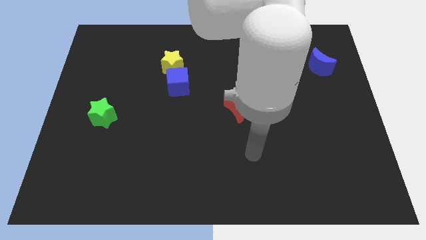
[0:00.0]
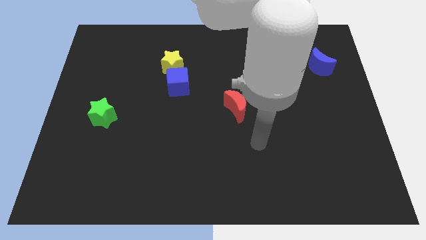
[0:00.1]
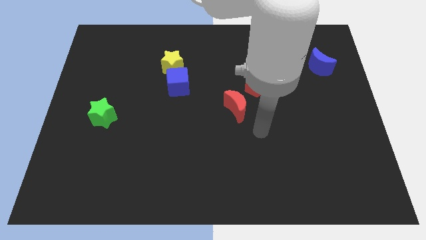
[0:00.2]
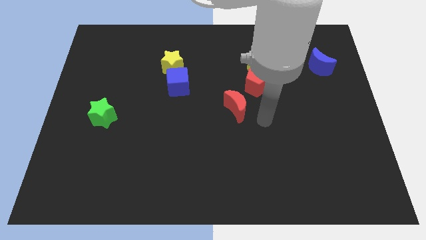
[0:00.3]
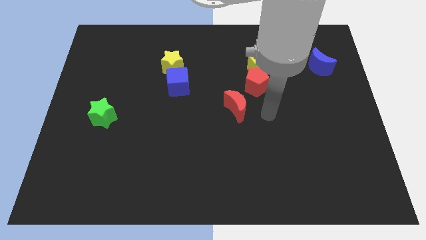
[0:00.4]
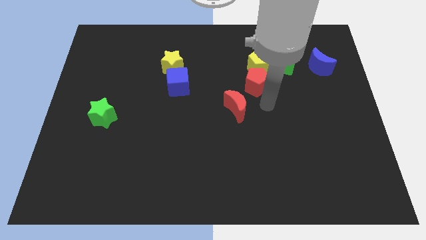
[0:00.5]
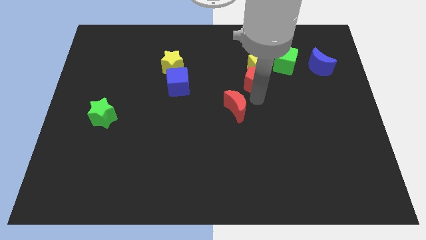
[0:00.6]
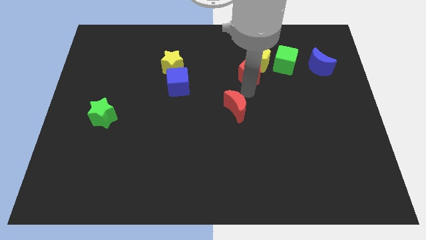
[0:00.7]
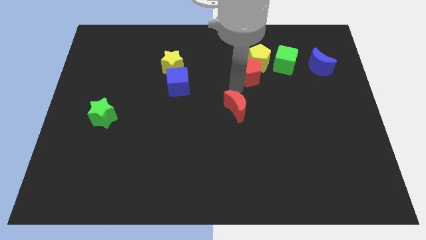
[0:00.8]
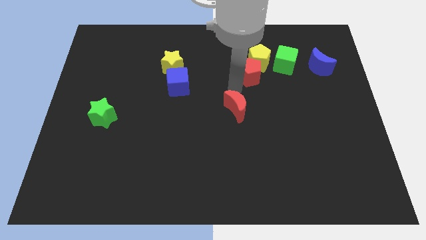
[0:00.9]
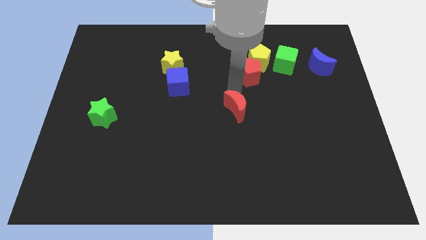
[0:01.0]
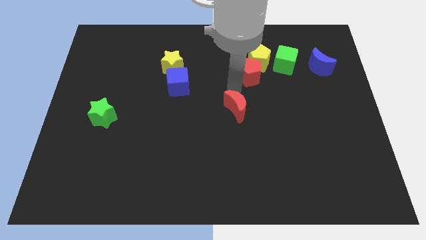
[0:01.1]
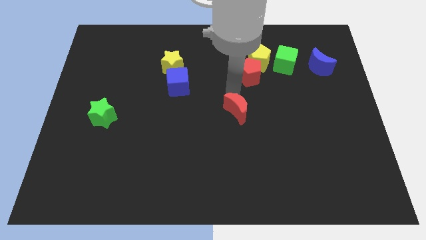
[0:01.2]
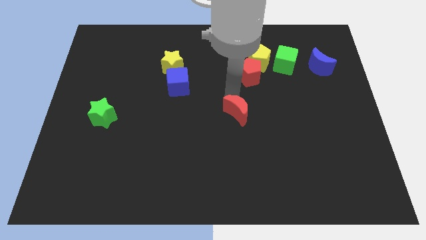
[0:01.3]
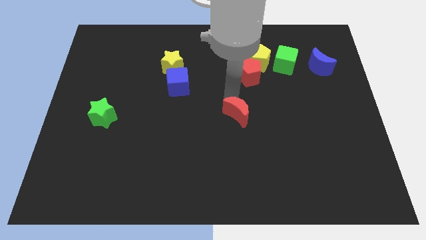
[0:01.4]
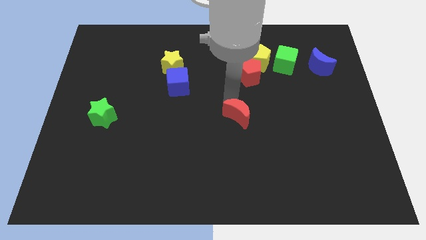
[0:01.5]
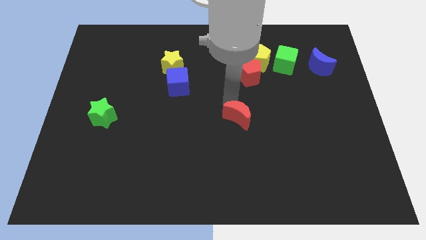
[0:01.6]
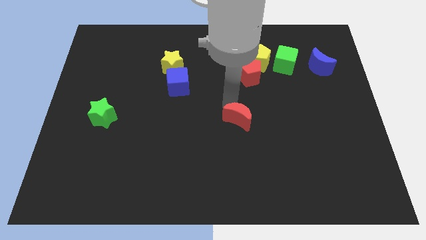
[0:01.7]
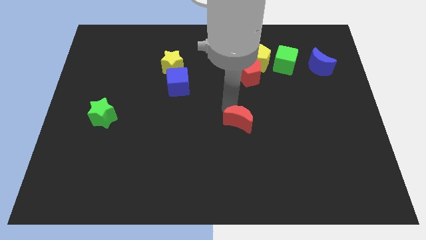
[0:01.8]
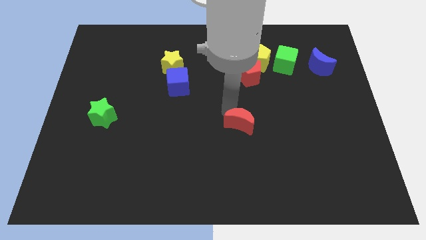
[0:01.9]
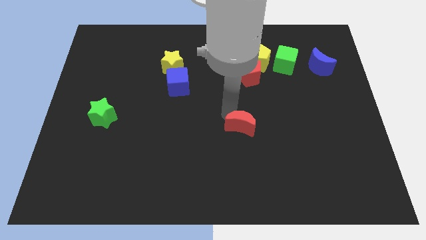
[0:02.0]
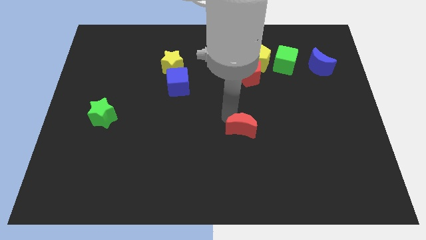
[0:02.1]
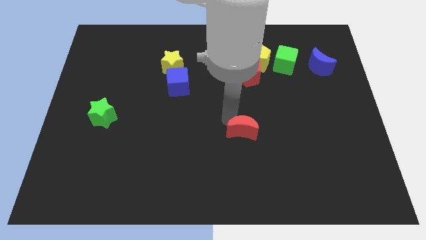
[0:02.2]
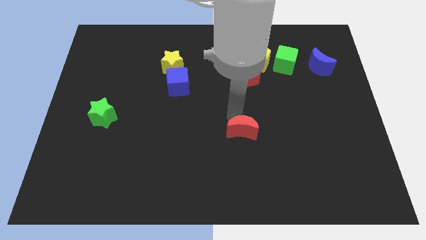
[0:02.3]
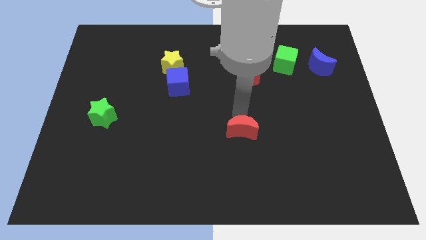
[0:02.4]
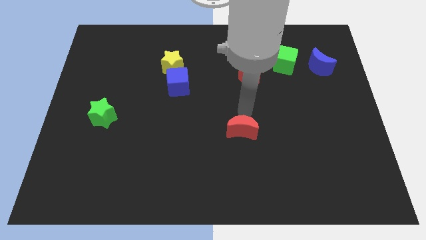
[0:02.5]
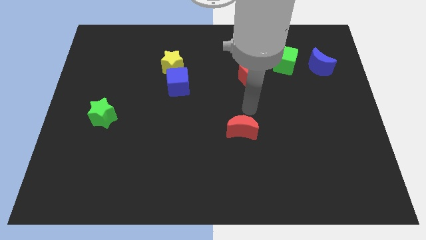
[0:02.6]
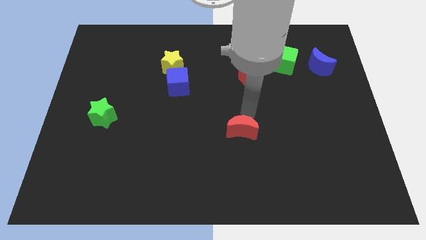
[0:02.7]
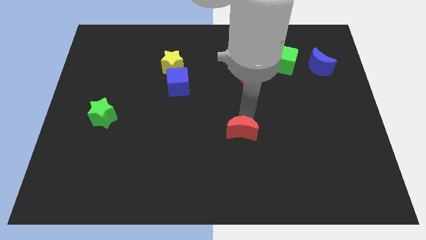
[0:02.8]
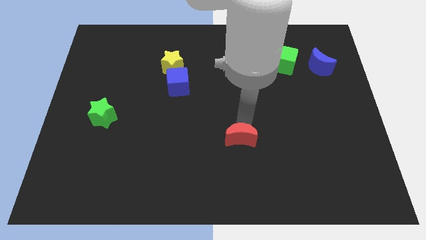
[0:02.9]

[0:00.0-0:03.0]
push the red moon slightly down

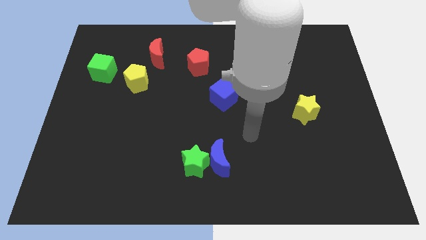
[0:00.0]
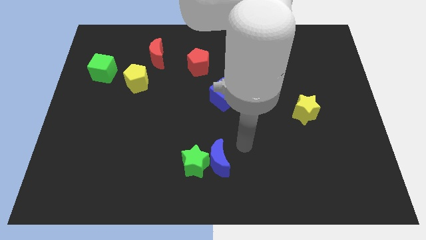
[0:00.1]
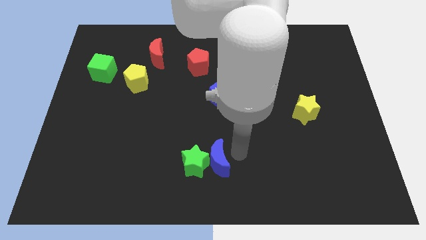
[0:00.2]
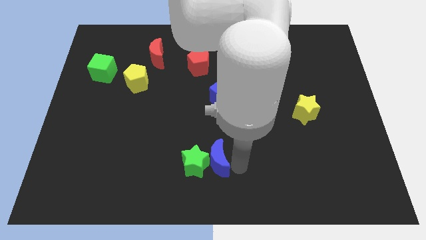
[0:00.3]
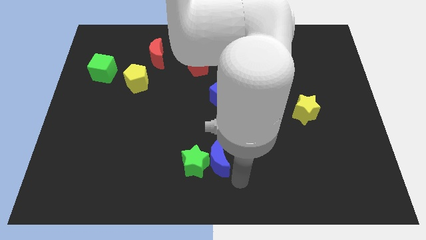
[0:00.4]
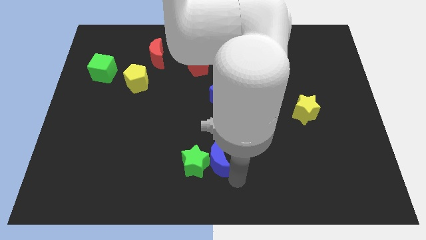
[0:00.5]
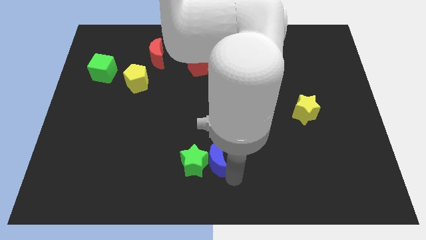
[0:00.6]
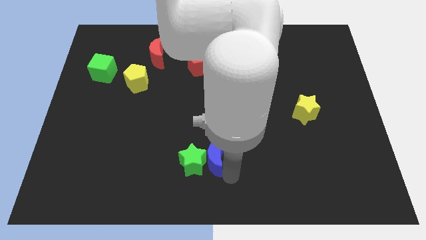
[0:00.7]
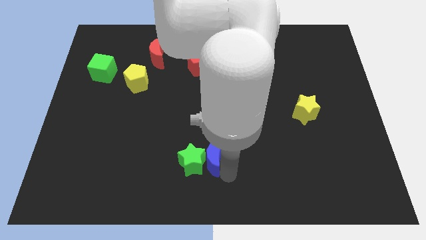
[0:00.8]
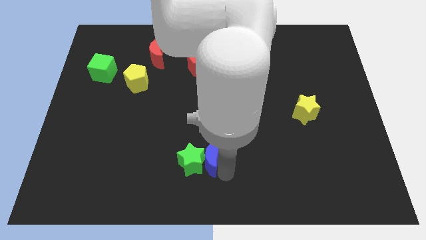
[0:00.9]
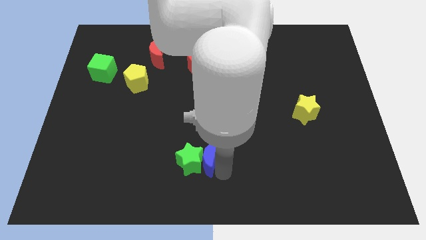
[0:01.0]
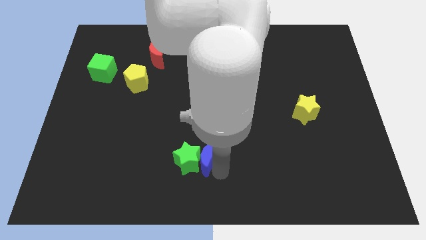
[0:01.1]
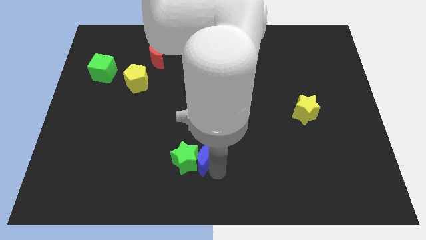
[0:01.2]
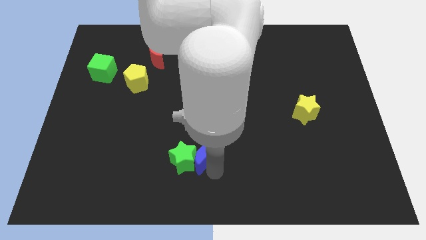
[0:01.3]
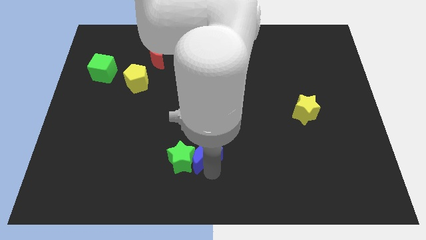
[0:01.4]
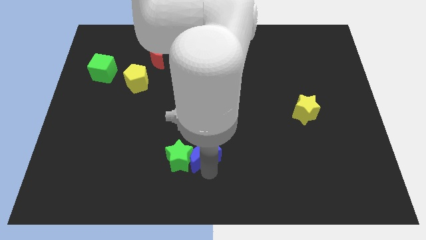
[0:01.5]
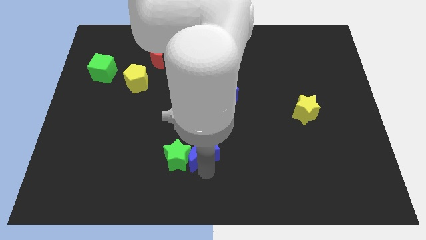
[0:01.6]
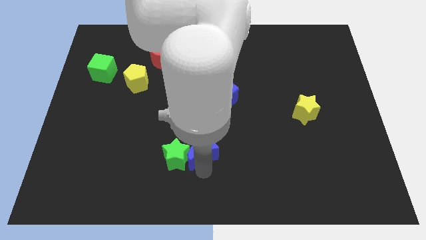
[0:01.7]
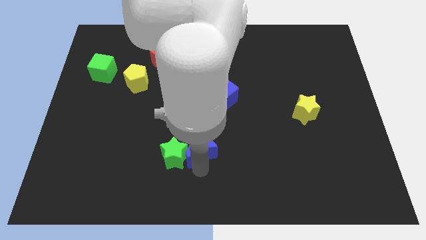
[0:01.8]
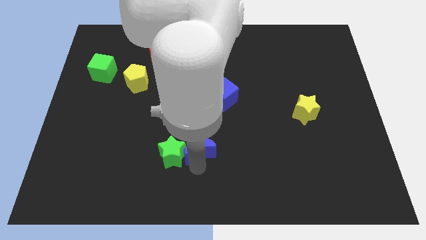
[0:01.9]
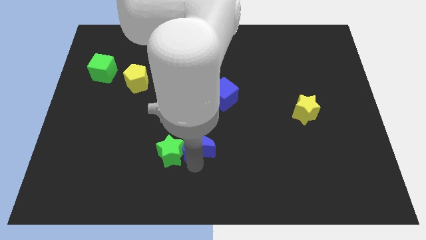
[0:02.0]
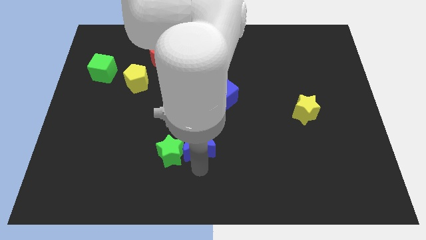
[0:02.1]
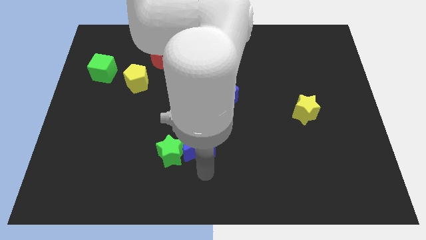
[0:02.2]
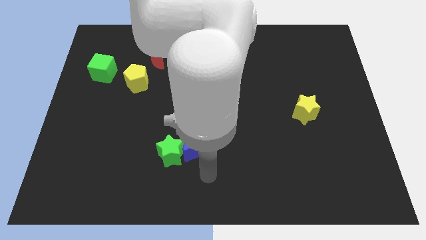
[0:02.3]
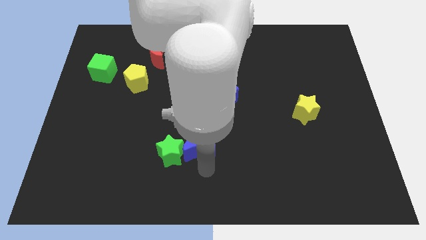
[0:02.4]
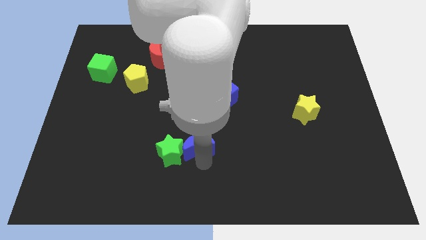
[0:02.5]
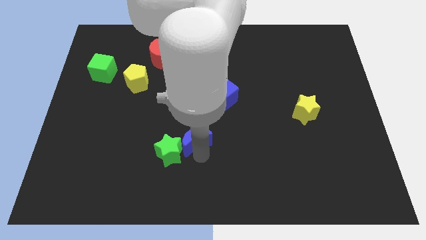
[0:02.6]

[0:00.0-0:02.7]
slightly slide the blue moon diagonally upwards and to the left

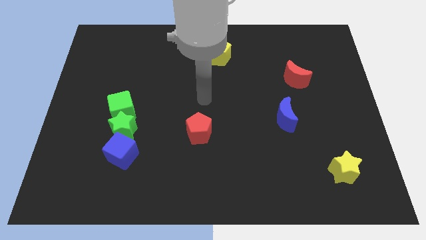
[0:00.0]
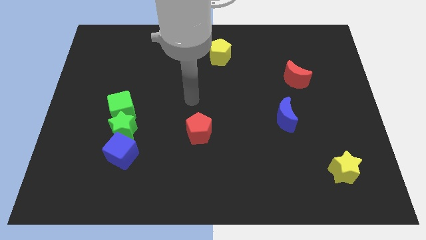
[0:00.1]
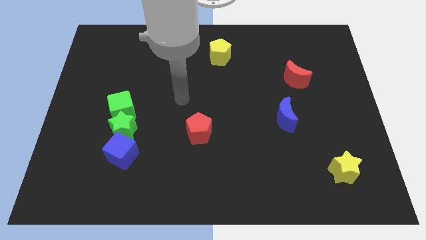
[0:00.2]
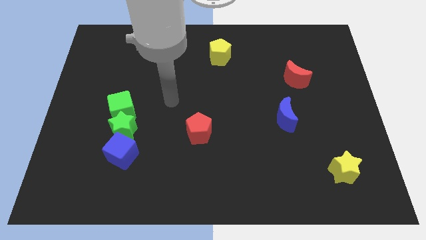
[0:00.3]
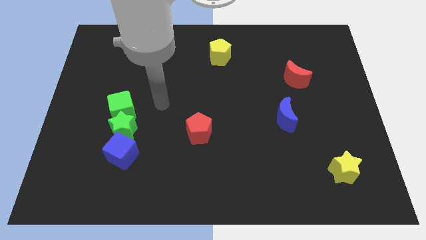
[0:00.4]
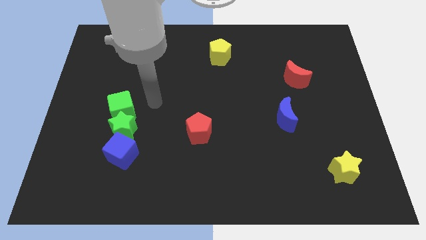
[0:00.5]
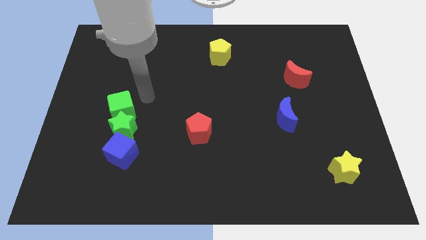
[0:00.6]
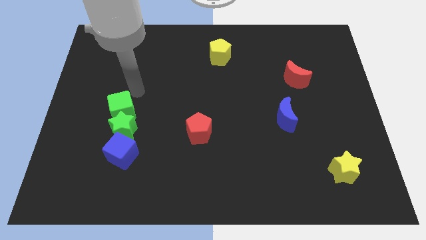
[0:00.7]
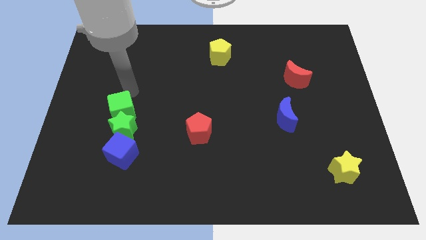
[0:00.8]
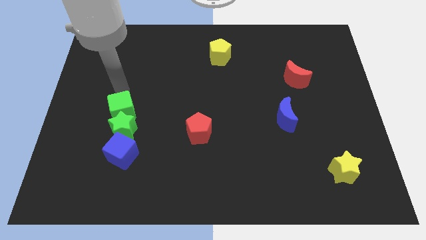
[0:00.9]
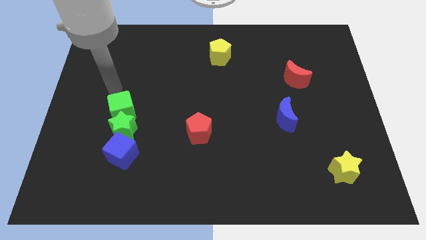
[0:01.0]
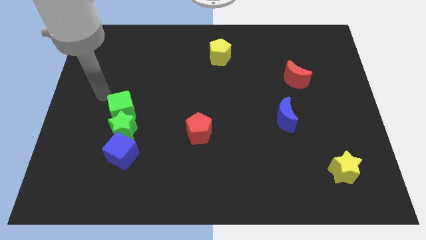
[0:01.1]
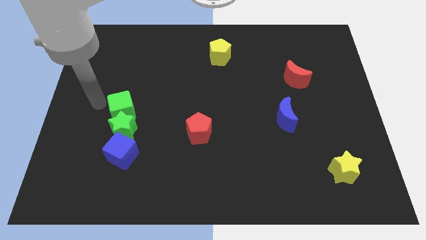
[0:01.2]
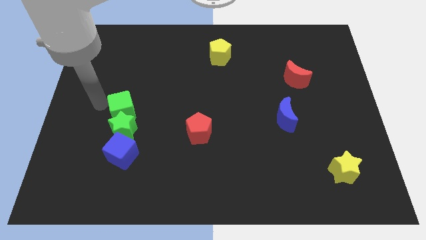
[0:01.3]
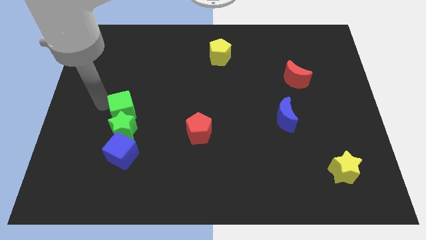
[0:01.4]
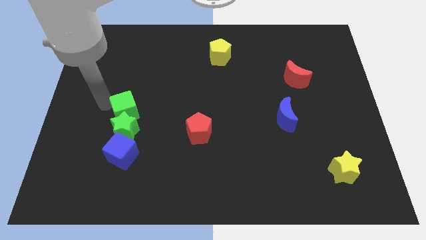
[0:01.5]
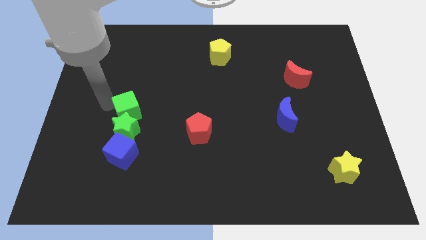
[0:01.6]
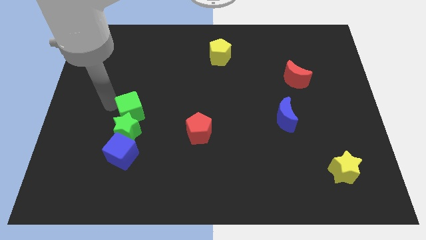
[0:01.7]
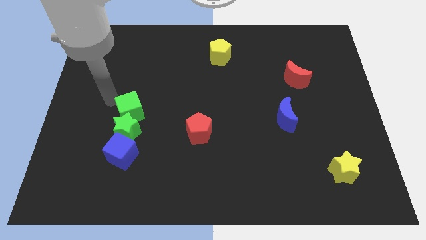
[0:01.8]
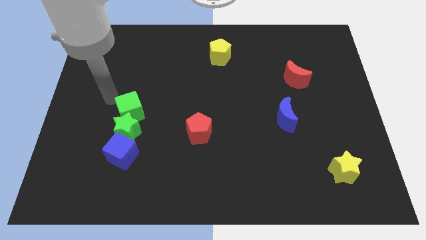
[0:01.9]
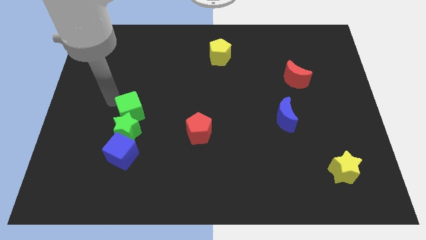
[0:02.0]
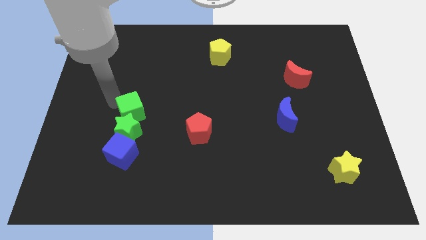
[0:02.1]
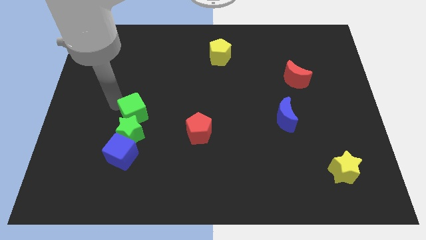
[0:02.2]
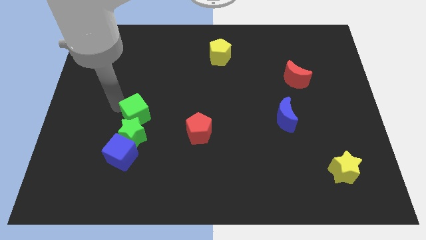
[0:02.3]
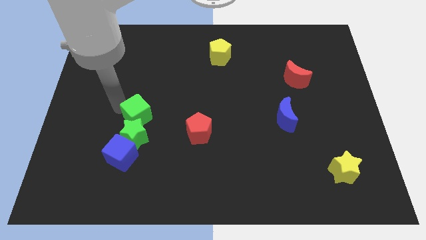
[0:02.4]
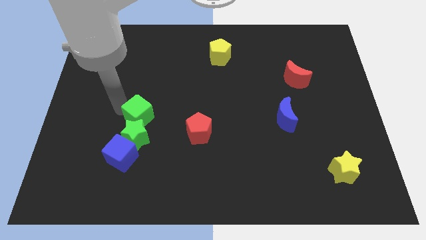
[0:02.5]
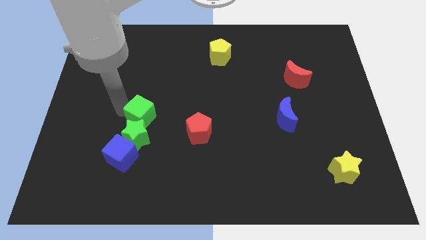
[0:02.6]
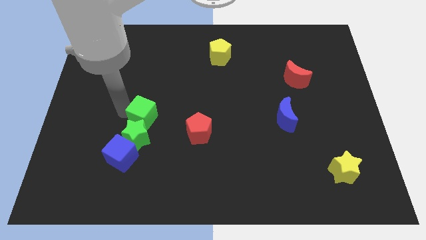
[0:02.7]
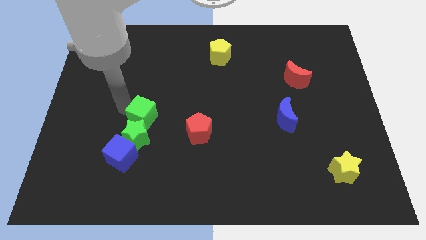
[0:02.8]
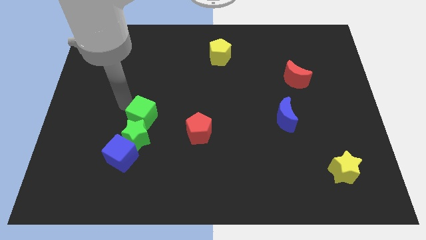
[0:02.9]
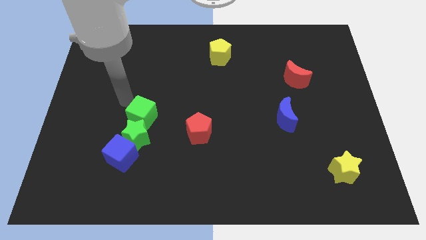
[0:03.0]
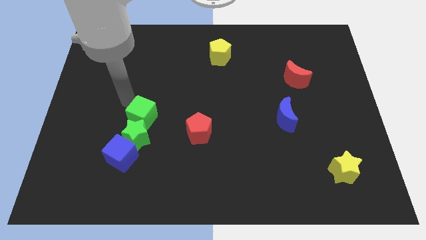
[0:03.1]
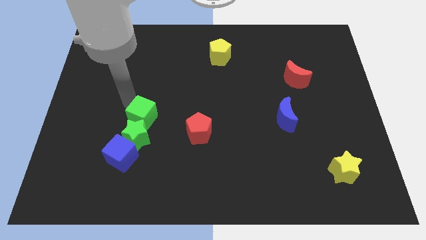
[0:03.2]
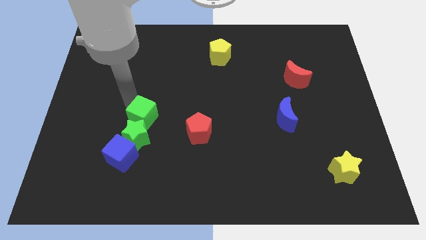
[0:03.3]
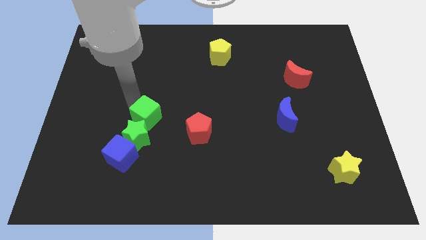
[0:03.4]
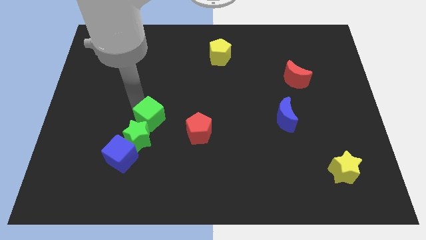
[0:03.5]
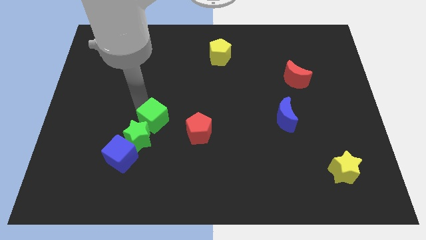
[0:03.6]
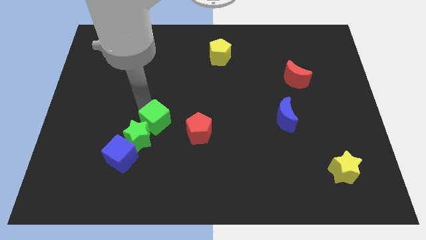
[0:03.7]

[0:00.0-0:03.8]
move the green cube down and to the right diagonally a little bit
